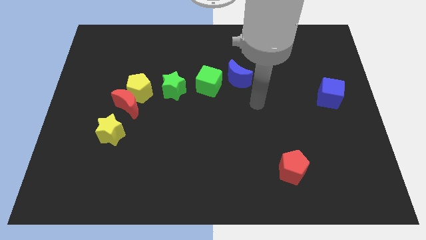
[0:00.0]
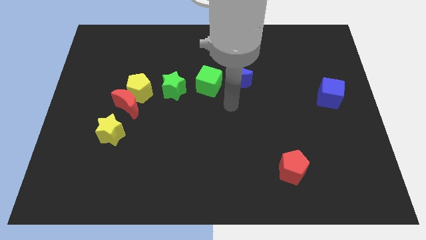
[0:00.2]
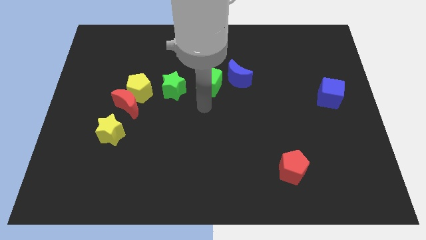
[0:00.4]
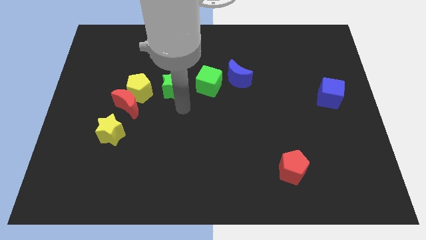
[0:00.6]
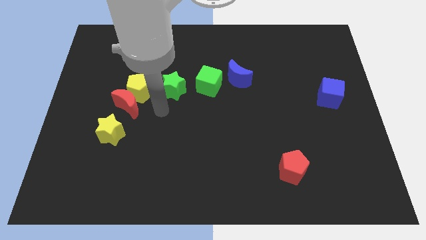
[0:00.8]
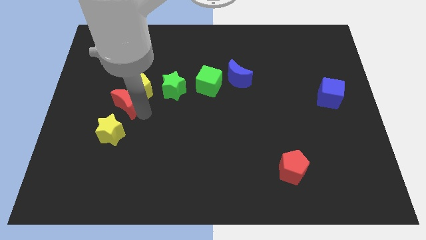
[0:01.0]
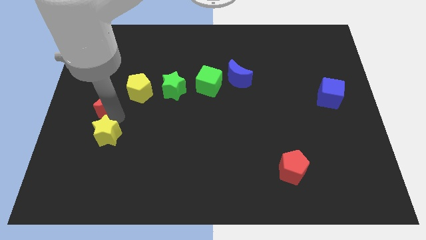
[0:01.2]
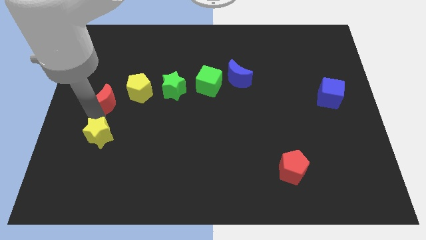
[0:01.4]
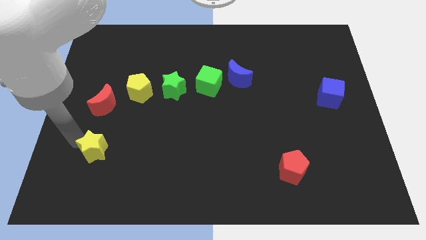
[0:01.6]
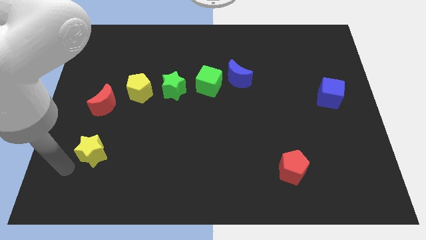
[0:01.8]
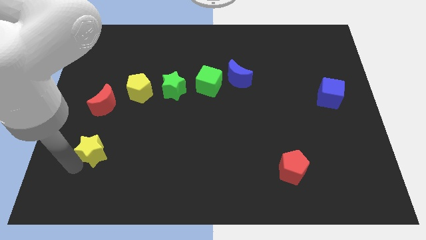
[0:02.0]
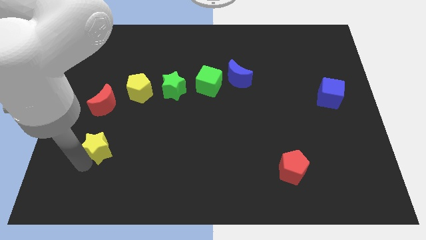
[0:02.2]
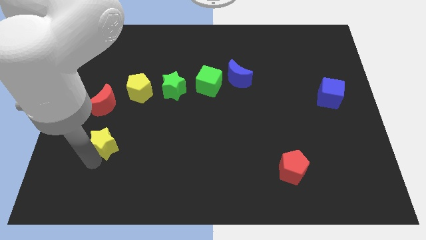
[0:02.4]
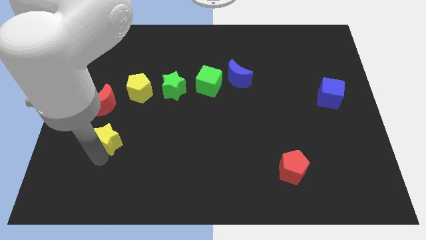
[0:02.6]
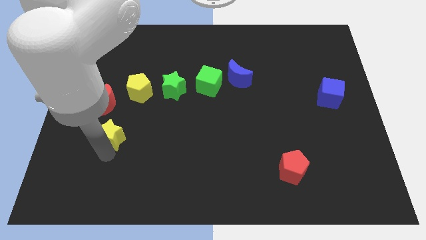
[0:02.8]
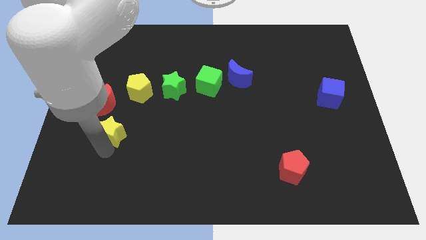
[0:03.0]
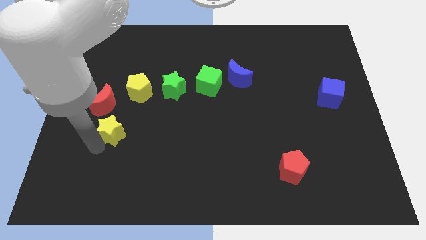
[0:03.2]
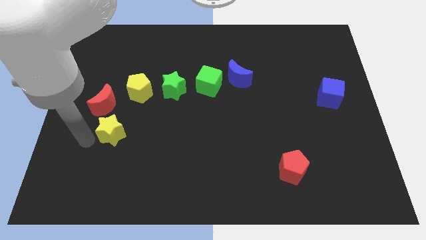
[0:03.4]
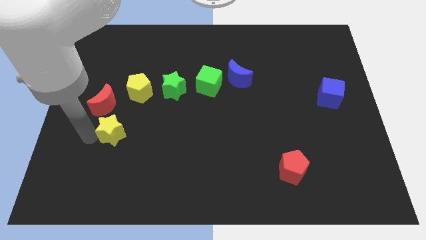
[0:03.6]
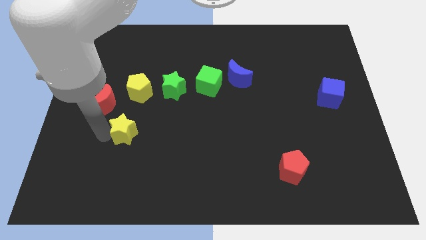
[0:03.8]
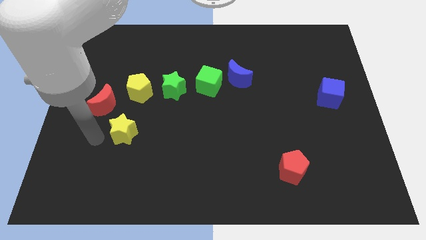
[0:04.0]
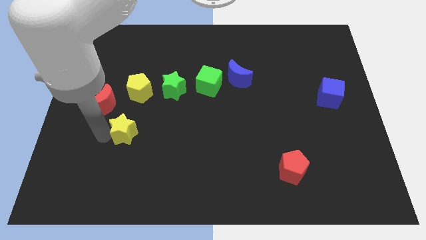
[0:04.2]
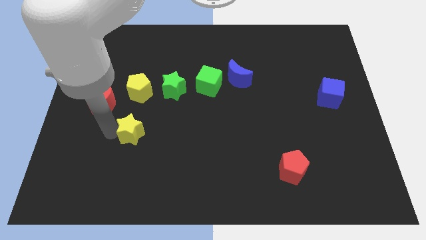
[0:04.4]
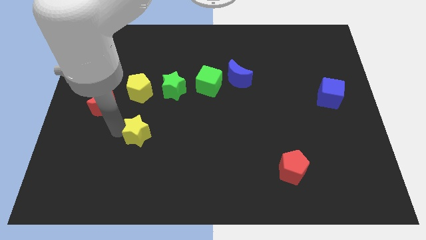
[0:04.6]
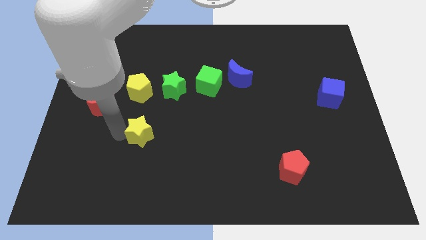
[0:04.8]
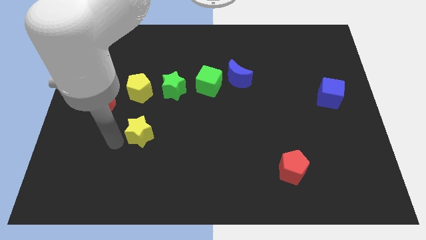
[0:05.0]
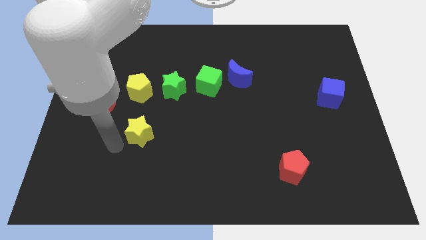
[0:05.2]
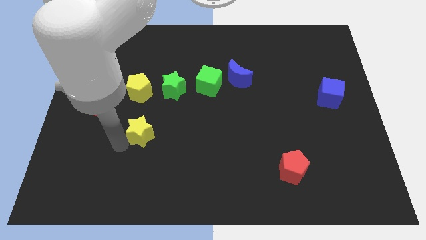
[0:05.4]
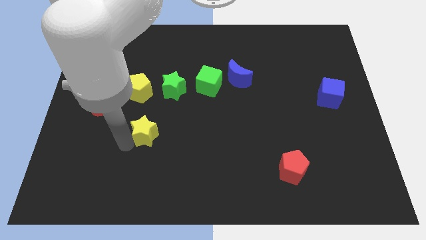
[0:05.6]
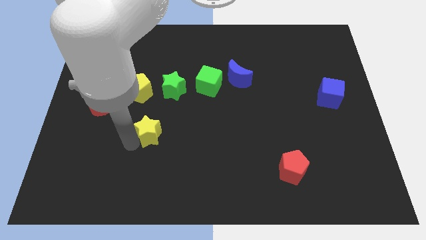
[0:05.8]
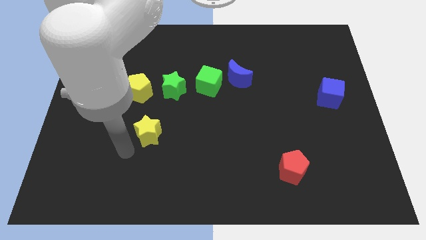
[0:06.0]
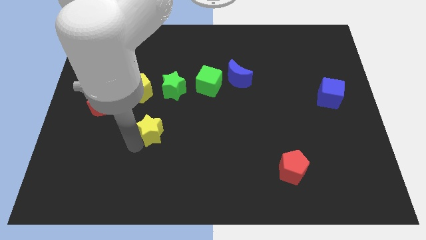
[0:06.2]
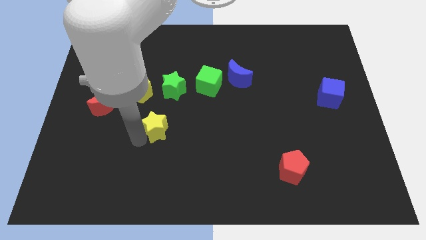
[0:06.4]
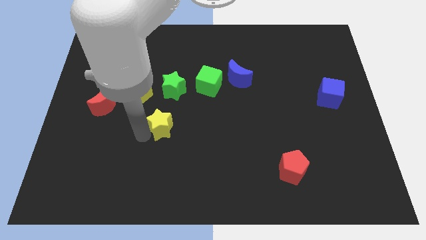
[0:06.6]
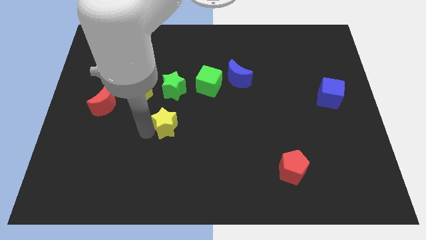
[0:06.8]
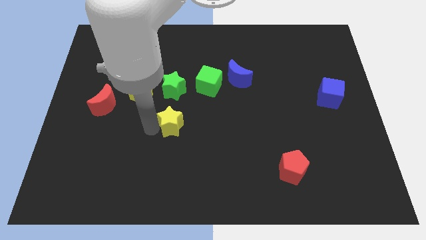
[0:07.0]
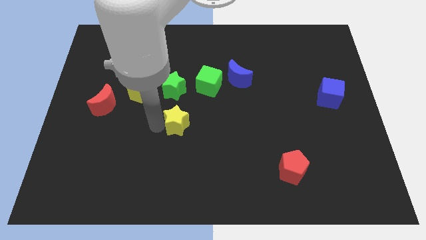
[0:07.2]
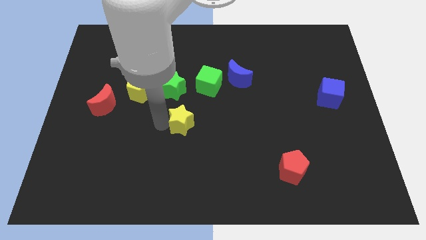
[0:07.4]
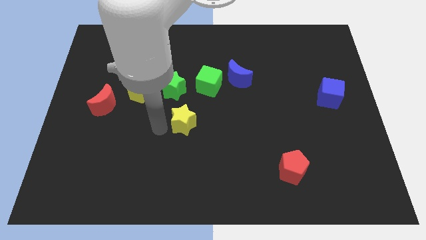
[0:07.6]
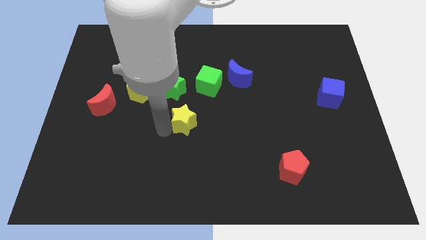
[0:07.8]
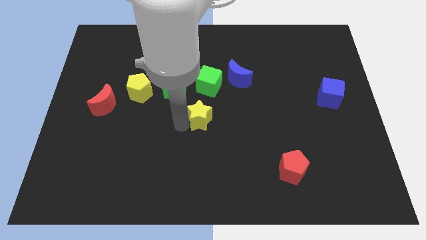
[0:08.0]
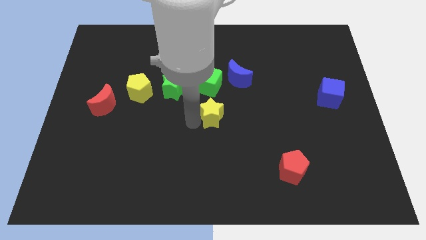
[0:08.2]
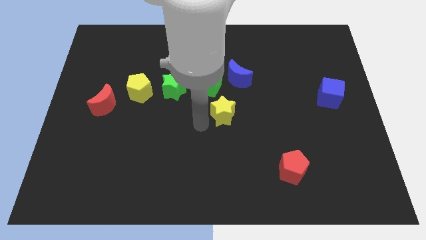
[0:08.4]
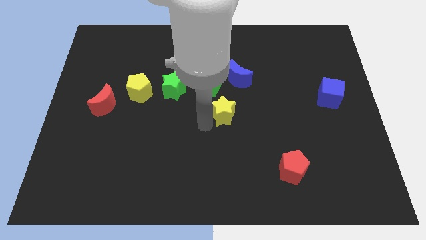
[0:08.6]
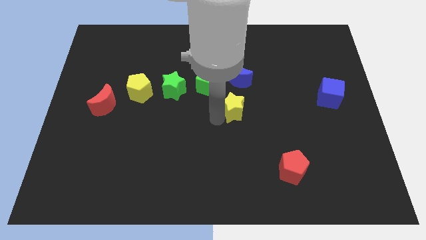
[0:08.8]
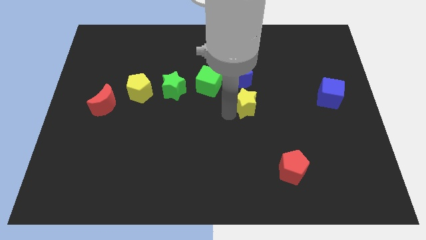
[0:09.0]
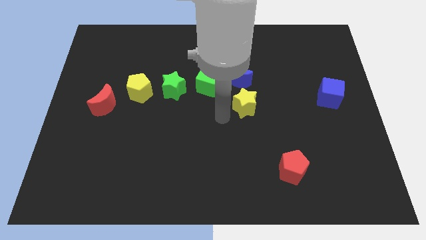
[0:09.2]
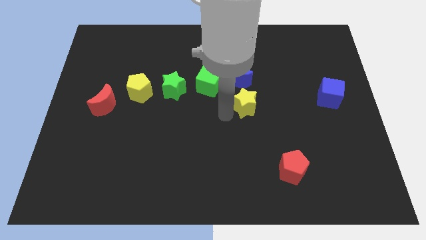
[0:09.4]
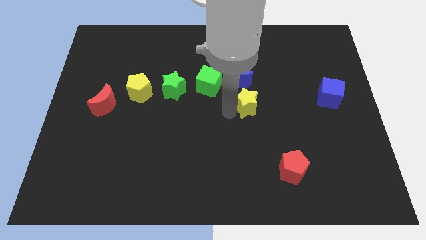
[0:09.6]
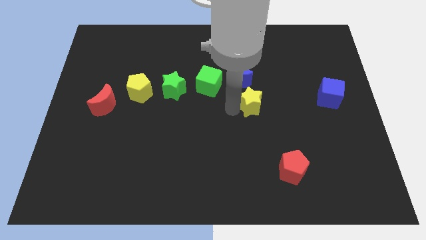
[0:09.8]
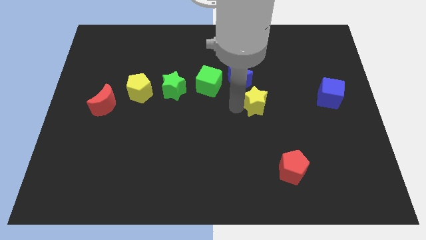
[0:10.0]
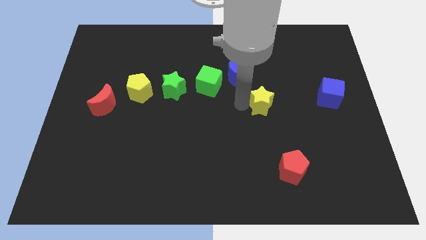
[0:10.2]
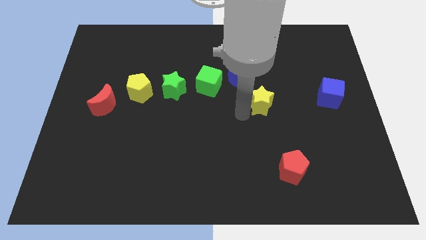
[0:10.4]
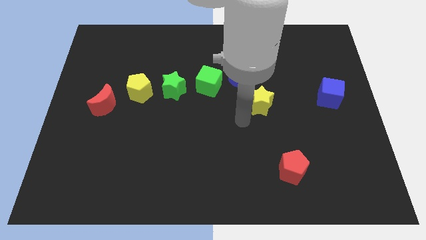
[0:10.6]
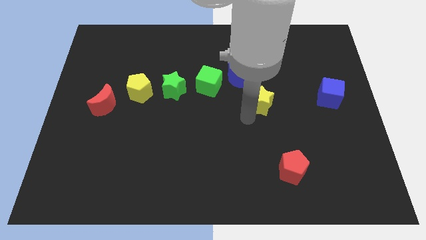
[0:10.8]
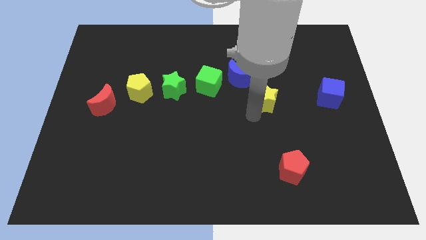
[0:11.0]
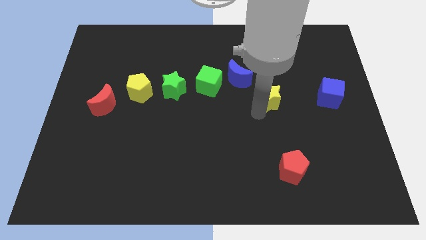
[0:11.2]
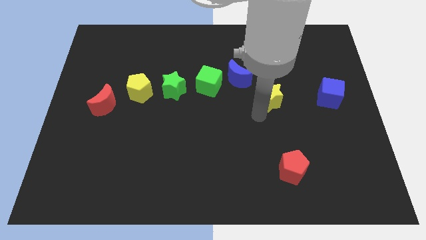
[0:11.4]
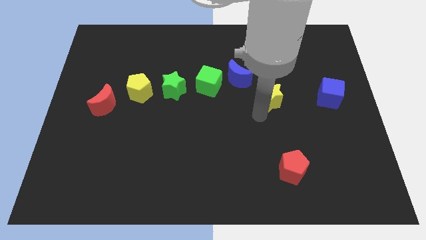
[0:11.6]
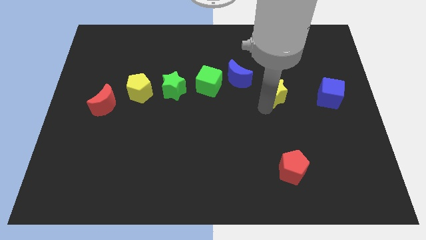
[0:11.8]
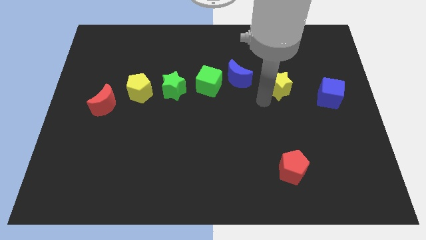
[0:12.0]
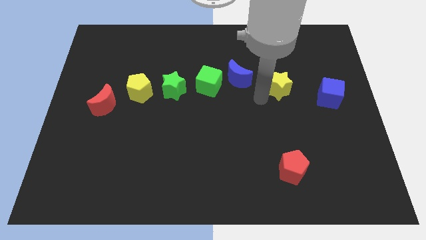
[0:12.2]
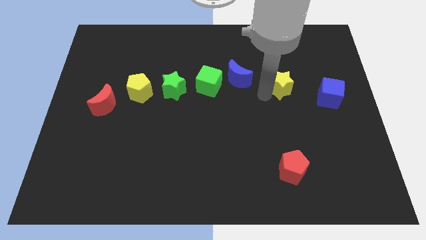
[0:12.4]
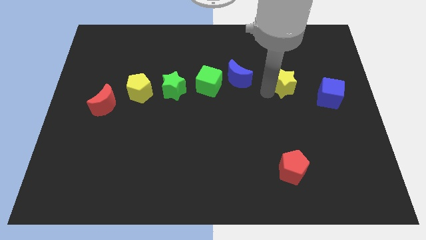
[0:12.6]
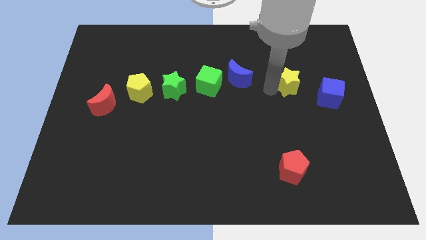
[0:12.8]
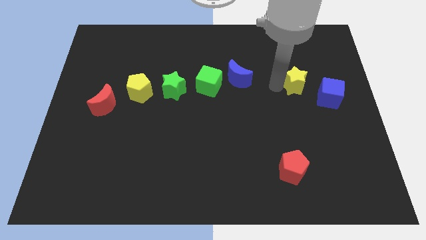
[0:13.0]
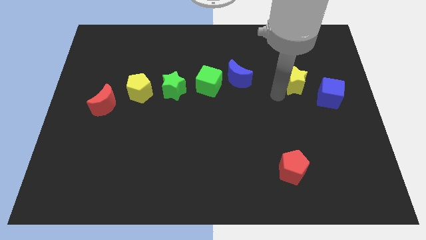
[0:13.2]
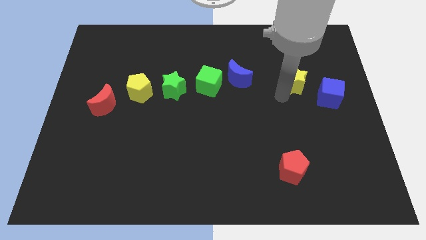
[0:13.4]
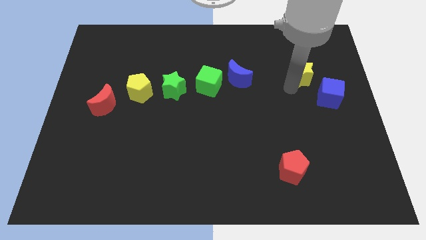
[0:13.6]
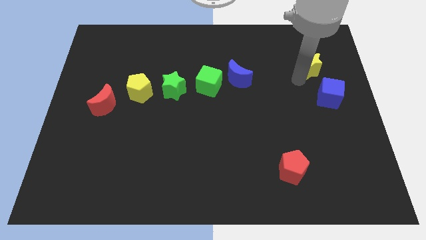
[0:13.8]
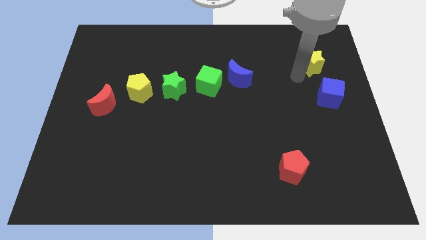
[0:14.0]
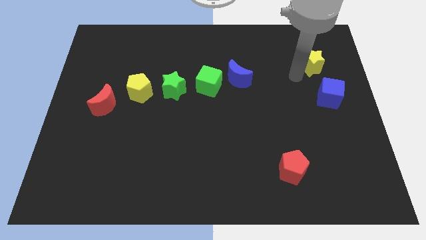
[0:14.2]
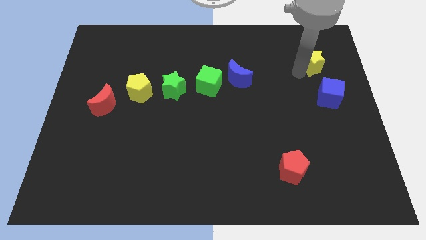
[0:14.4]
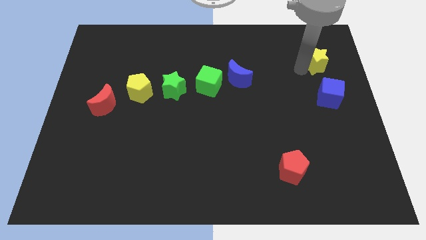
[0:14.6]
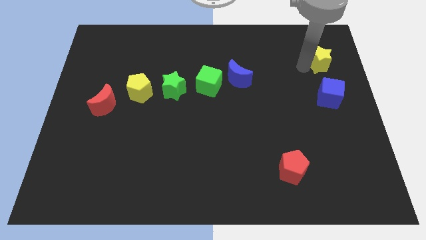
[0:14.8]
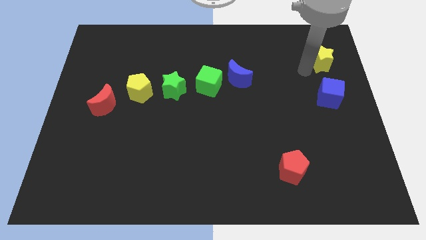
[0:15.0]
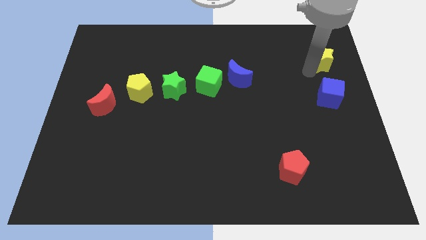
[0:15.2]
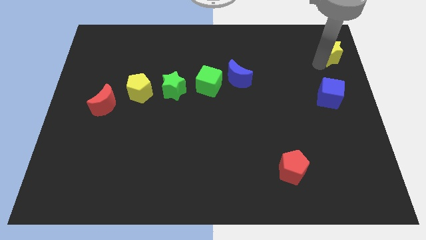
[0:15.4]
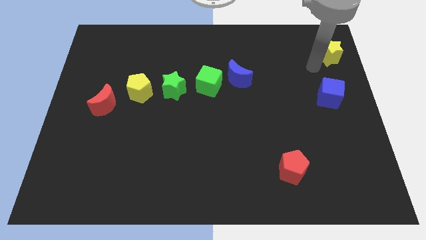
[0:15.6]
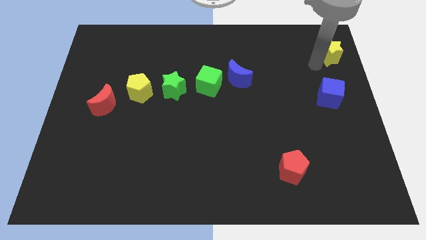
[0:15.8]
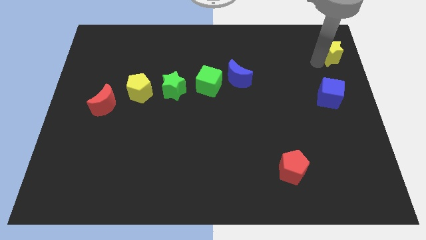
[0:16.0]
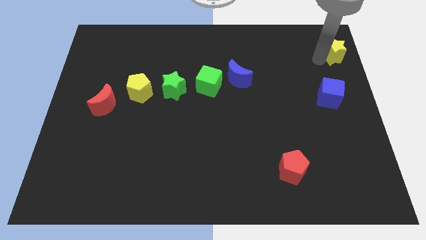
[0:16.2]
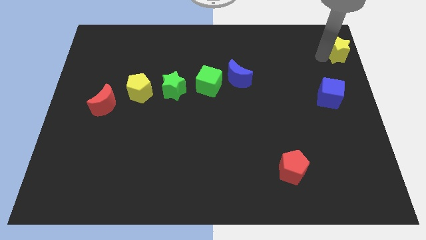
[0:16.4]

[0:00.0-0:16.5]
move the yellow star to the top right
